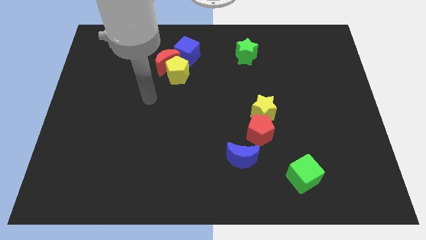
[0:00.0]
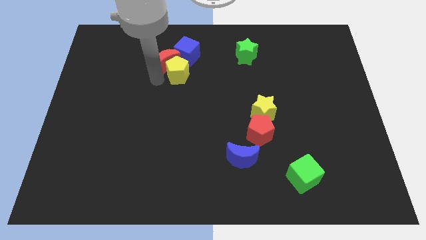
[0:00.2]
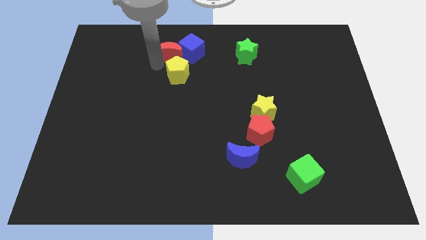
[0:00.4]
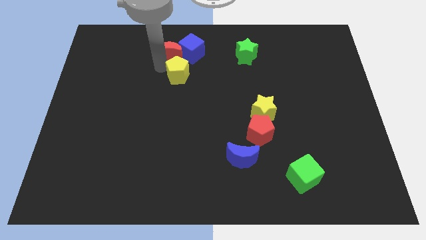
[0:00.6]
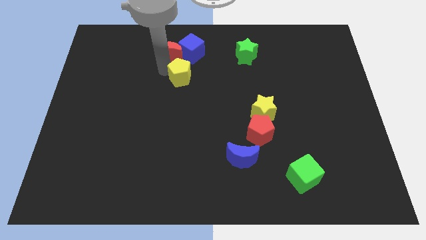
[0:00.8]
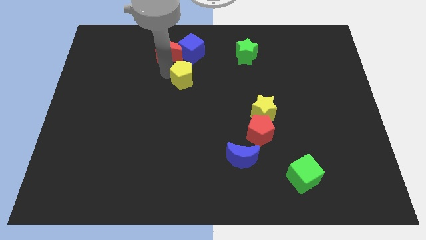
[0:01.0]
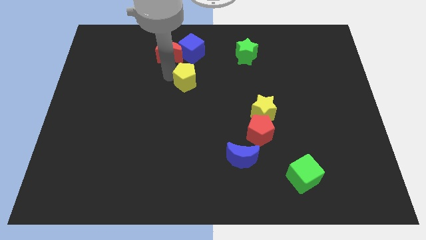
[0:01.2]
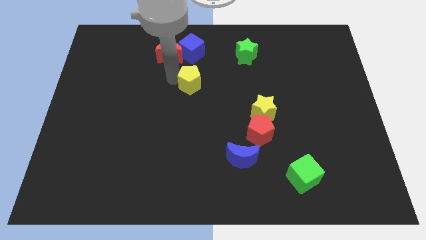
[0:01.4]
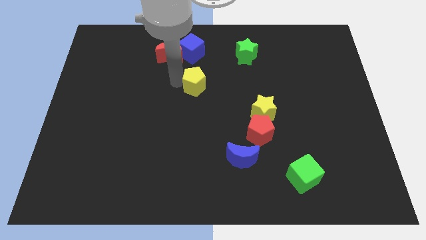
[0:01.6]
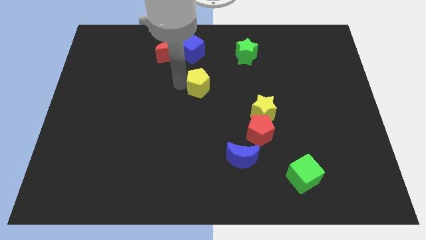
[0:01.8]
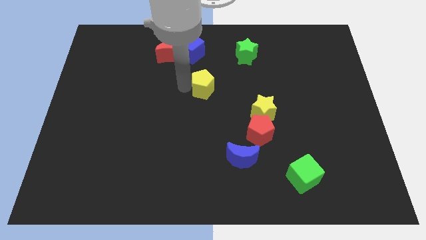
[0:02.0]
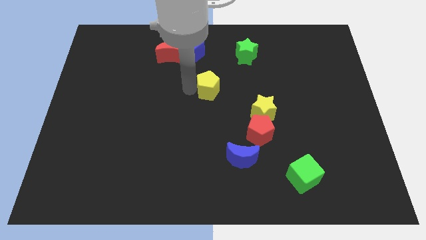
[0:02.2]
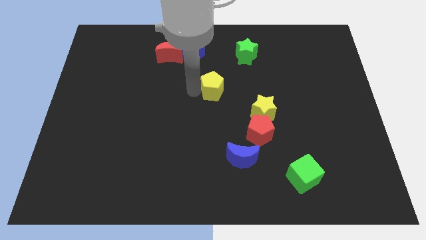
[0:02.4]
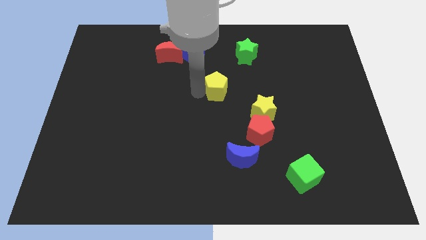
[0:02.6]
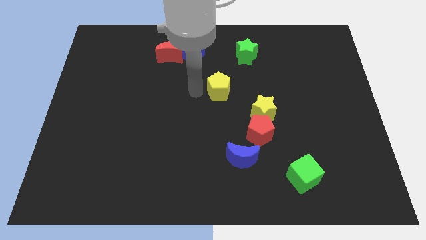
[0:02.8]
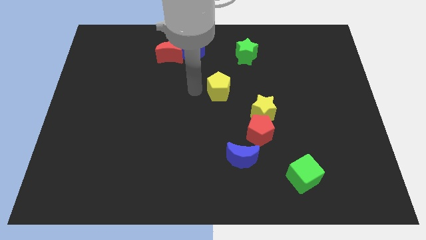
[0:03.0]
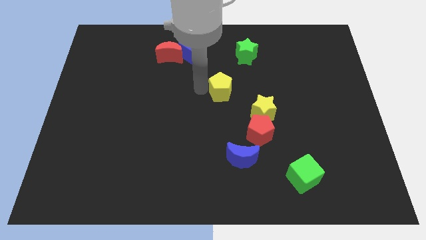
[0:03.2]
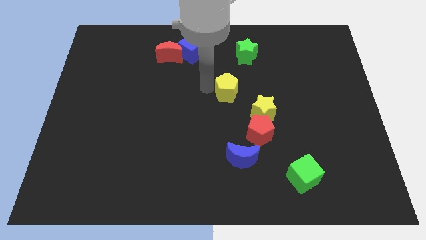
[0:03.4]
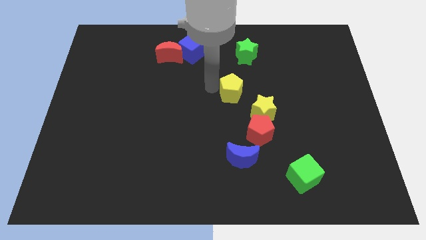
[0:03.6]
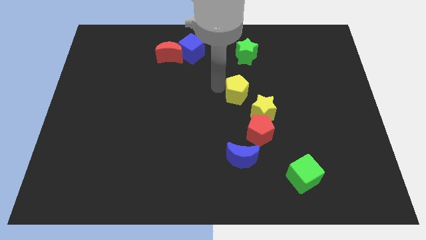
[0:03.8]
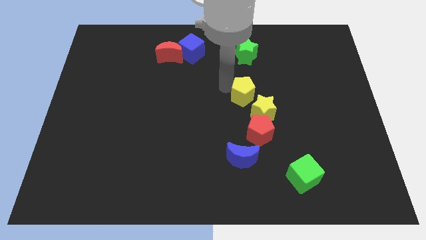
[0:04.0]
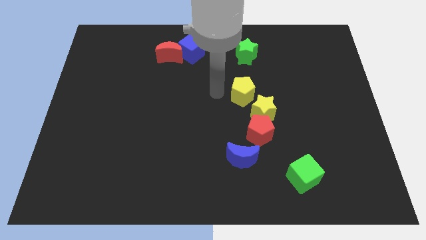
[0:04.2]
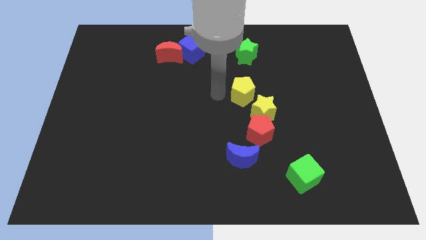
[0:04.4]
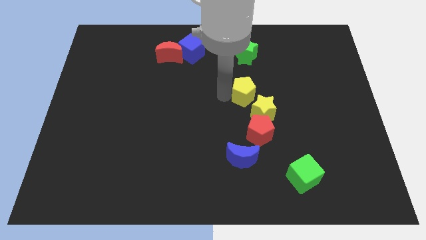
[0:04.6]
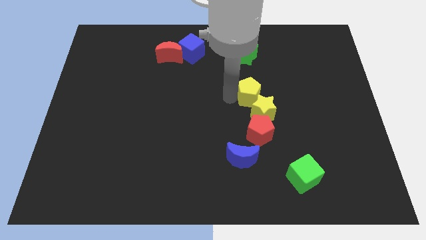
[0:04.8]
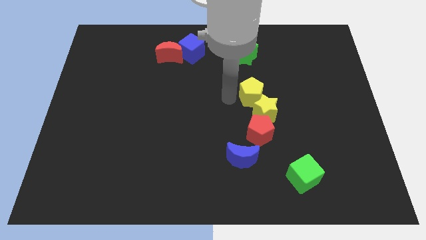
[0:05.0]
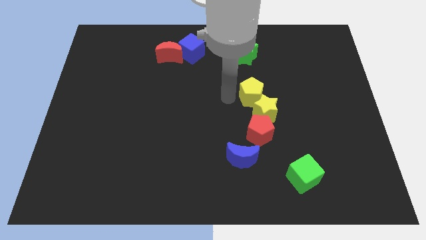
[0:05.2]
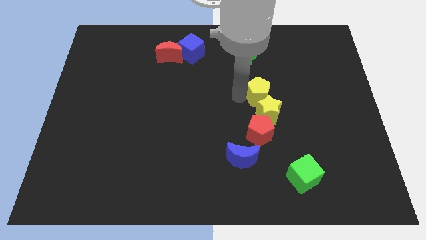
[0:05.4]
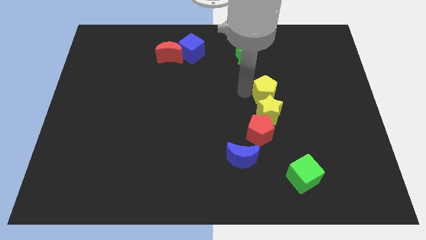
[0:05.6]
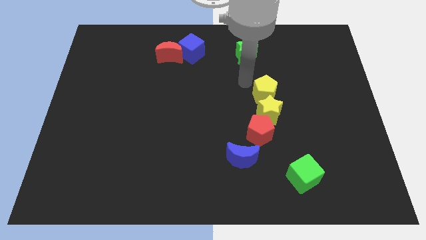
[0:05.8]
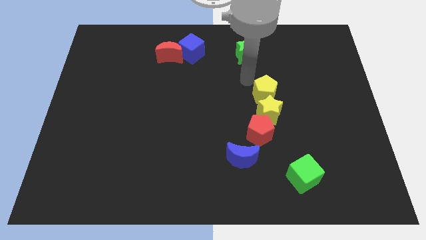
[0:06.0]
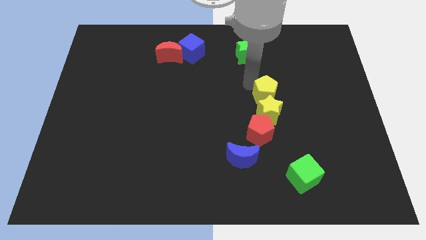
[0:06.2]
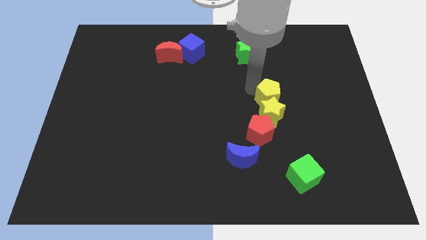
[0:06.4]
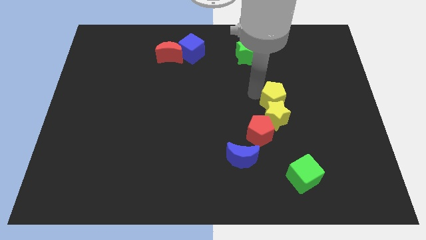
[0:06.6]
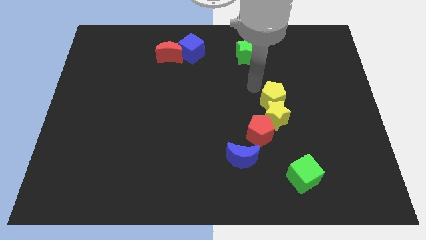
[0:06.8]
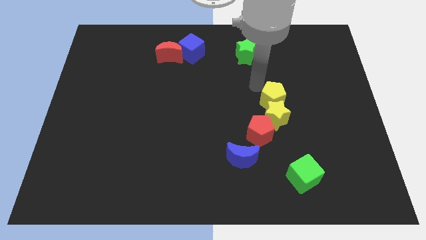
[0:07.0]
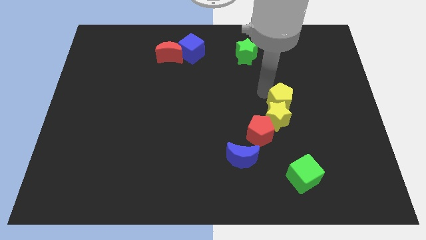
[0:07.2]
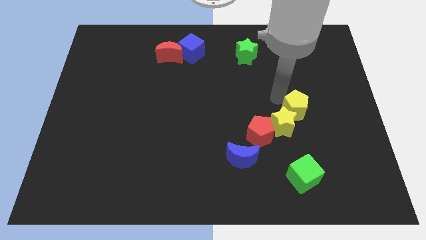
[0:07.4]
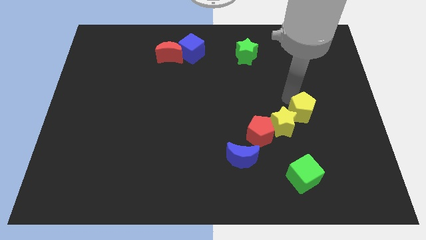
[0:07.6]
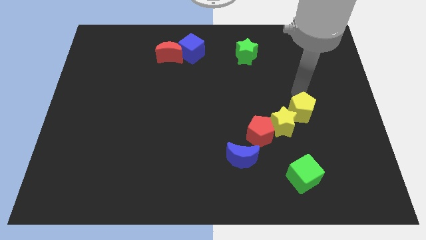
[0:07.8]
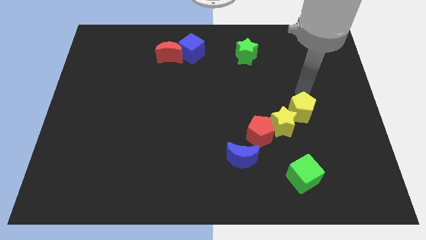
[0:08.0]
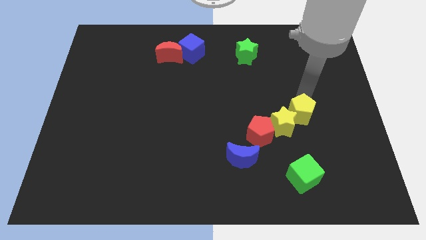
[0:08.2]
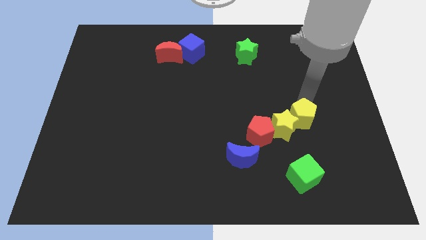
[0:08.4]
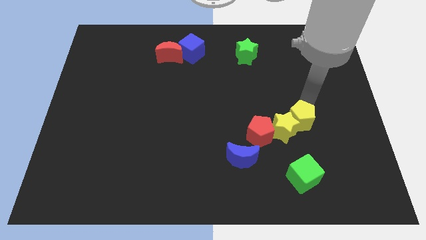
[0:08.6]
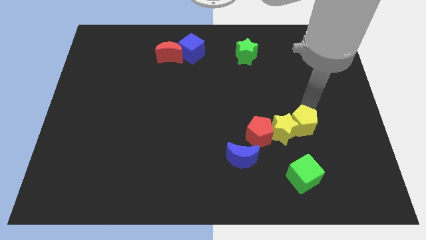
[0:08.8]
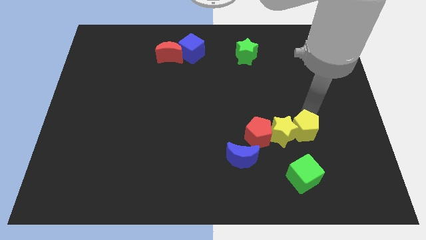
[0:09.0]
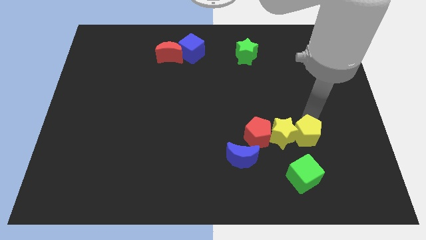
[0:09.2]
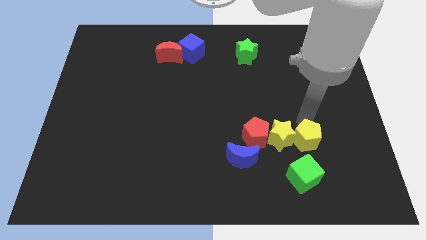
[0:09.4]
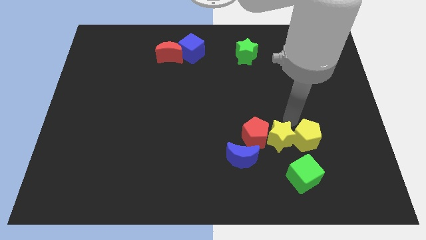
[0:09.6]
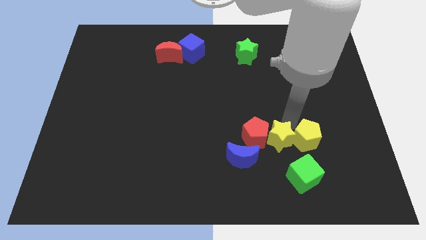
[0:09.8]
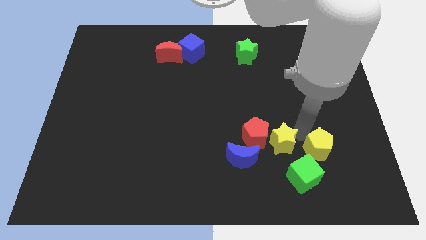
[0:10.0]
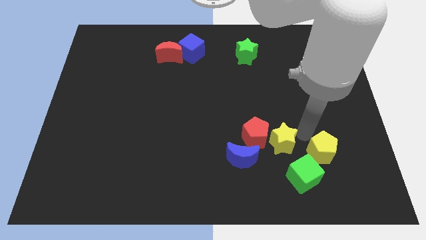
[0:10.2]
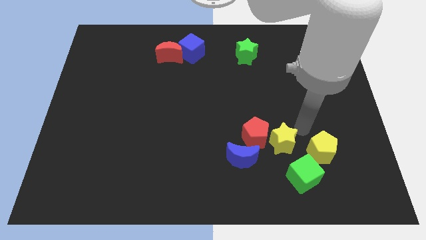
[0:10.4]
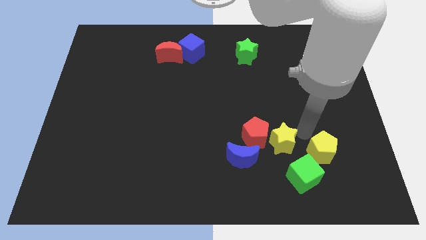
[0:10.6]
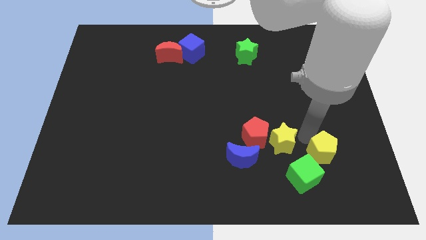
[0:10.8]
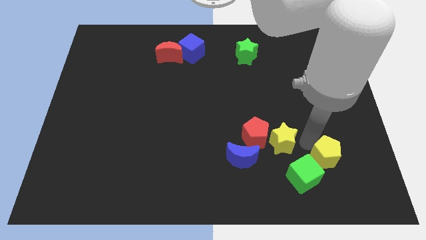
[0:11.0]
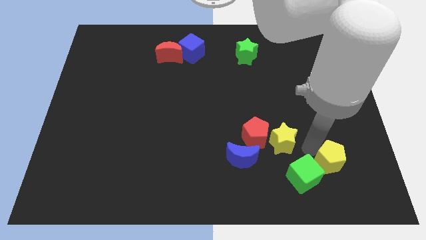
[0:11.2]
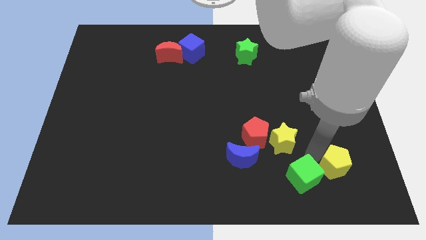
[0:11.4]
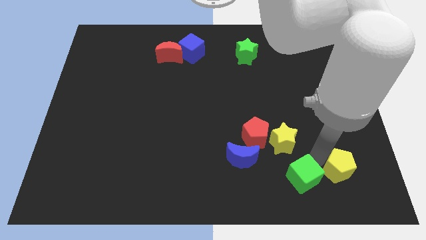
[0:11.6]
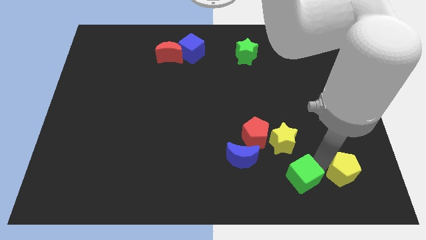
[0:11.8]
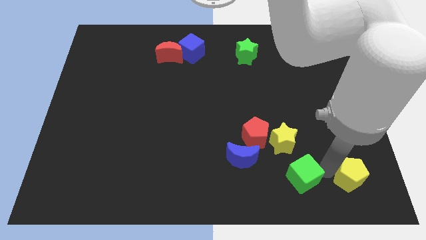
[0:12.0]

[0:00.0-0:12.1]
put the yellow pentagon to the bottom right
